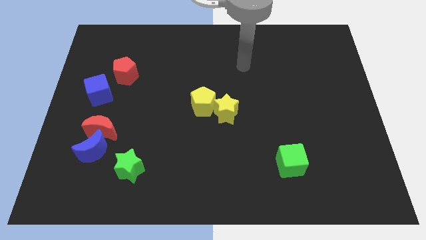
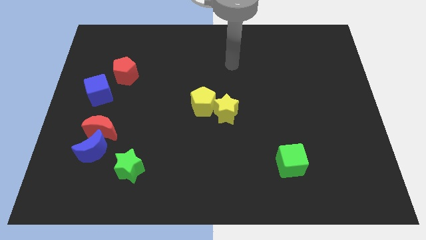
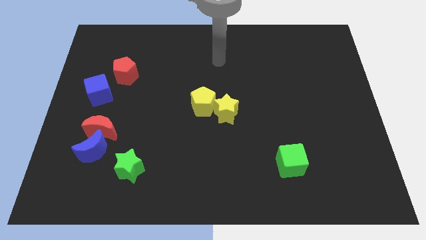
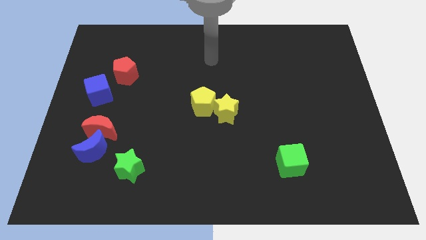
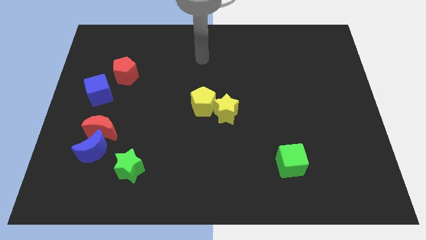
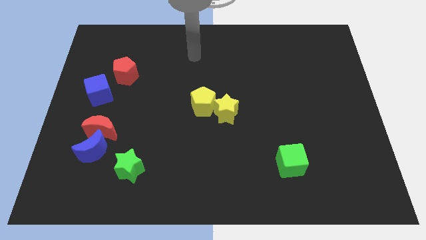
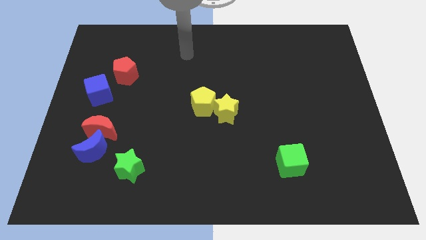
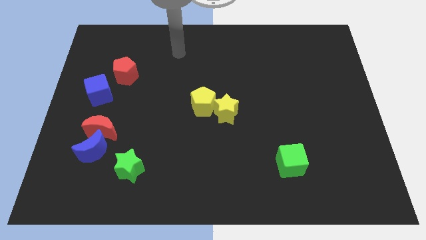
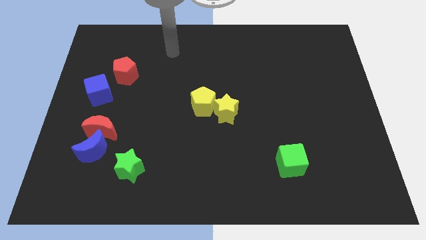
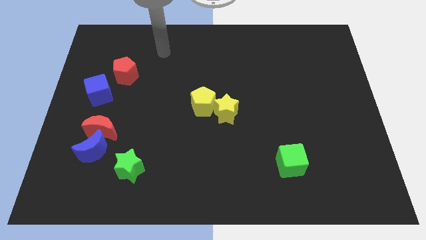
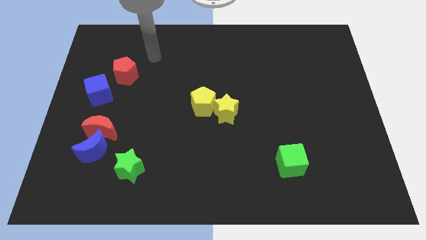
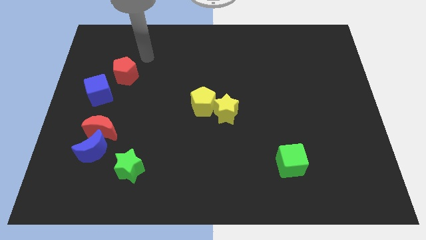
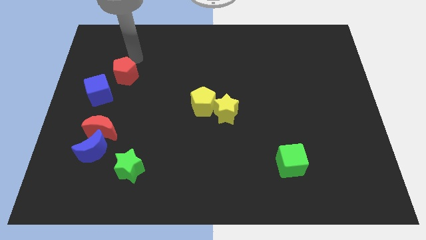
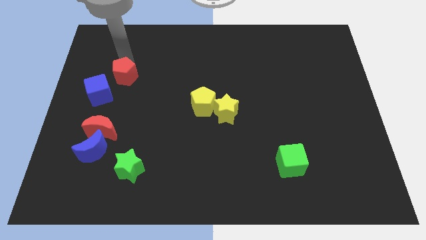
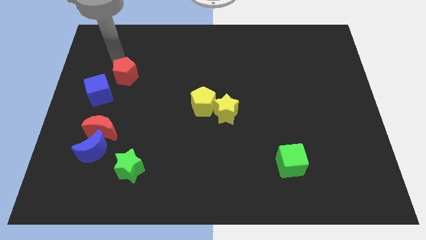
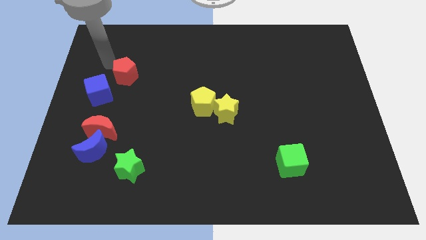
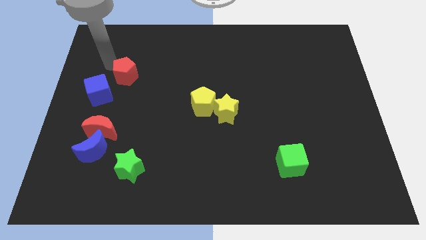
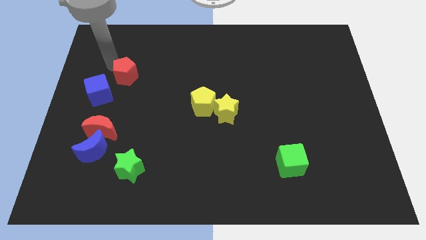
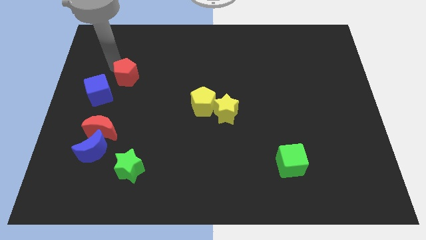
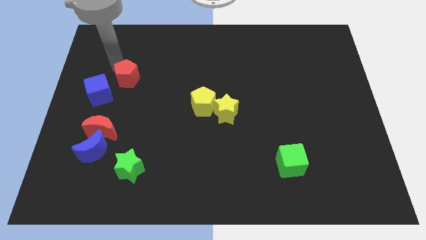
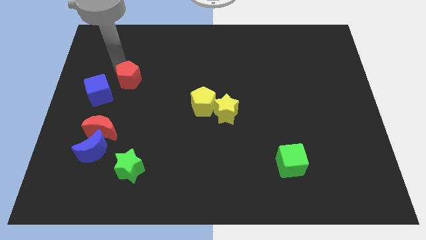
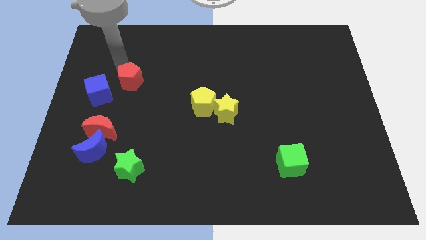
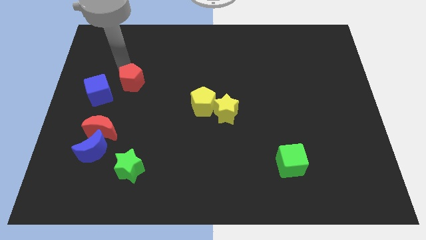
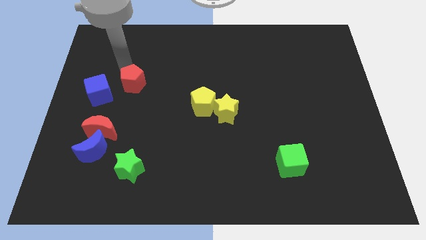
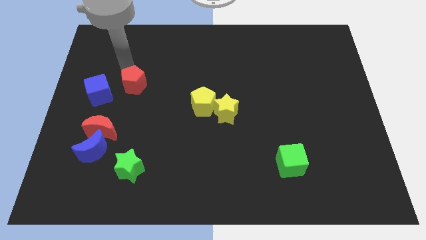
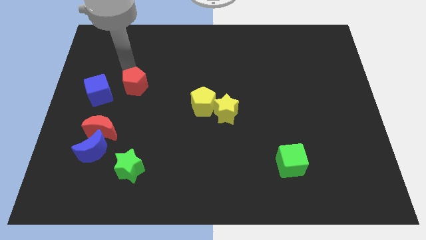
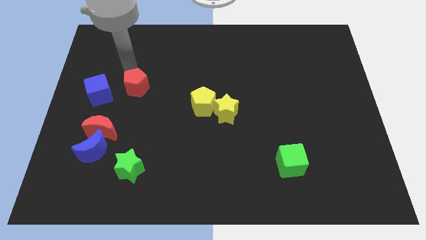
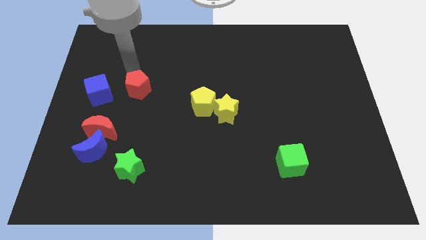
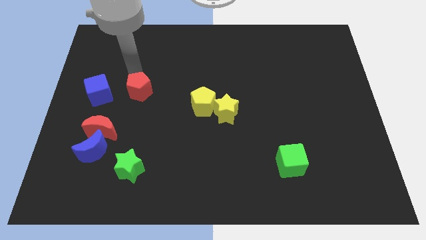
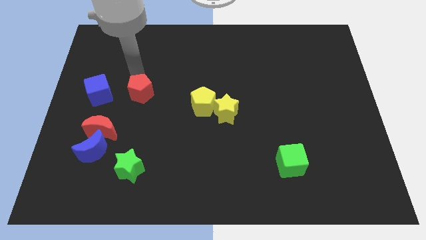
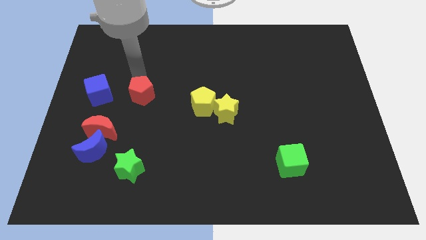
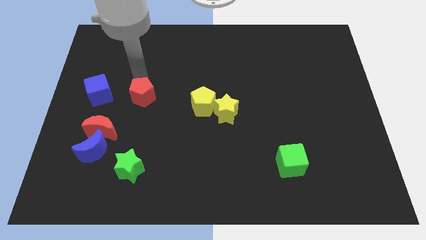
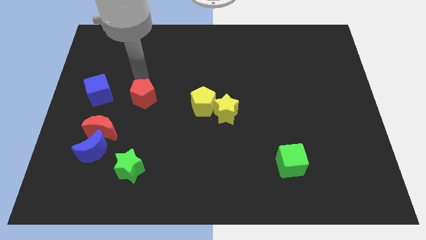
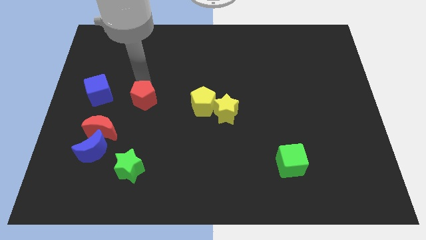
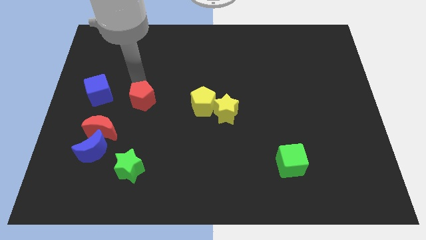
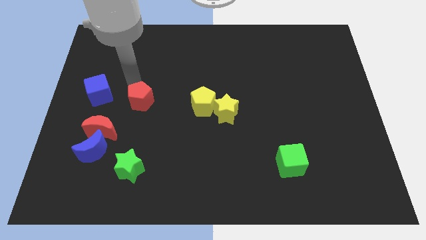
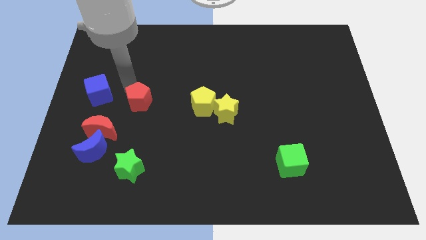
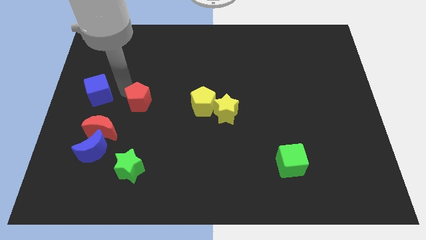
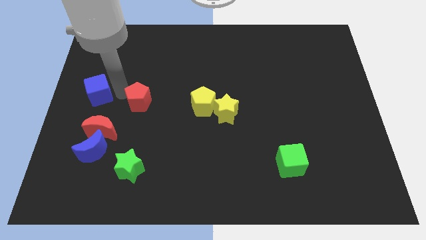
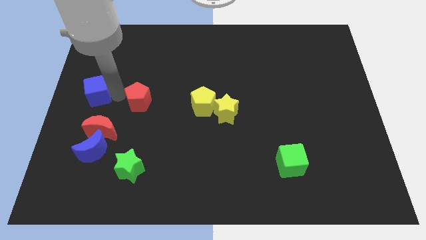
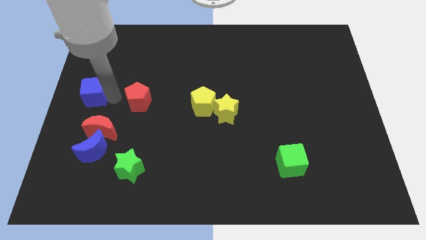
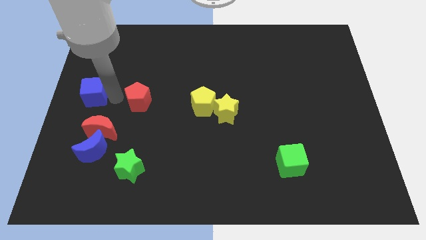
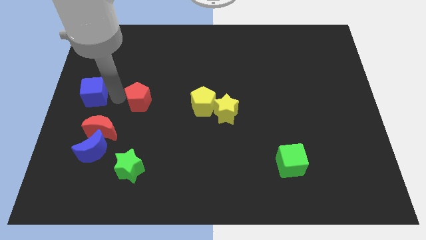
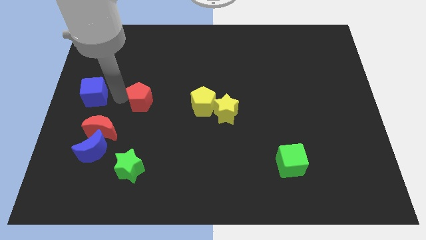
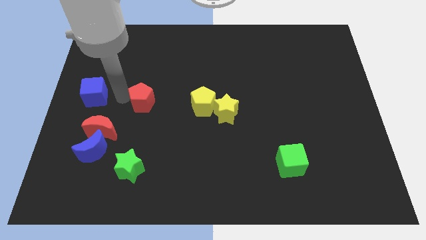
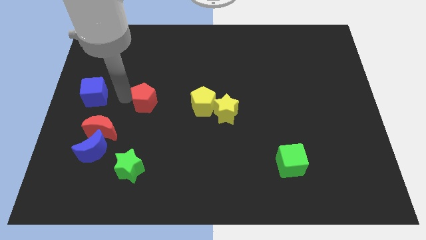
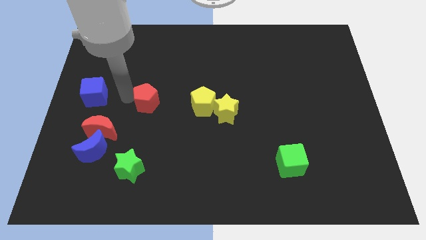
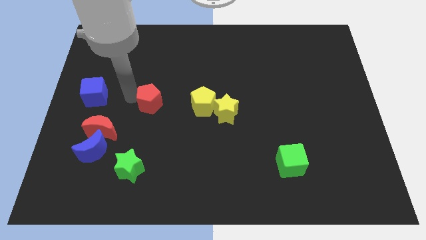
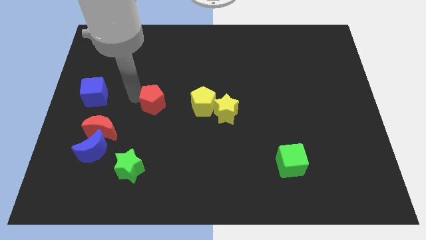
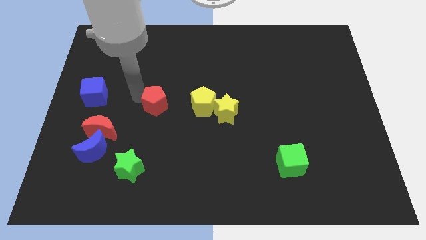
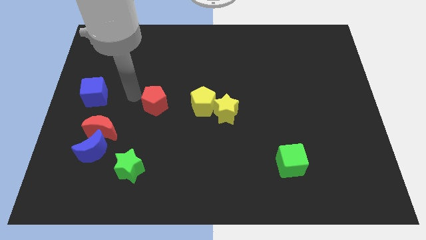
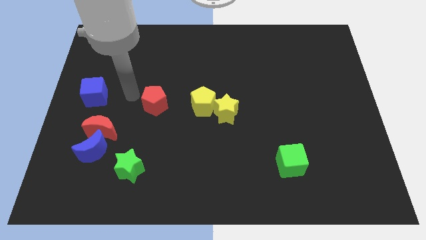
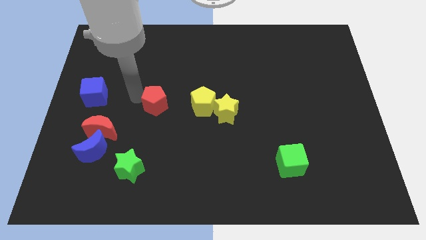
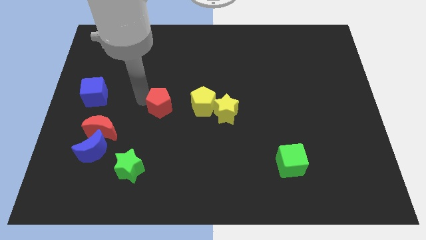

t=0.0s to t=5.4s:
slide the red pentagon just left of the yellow star

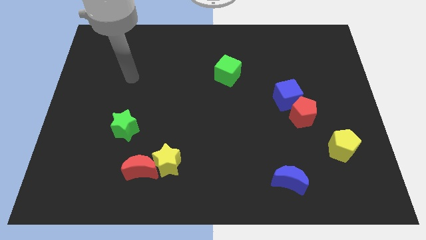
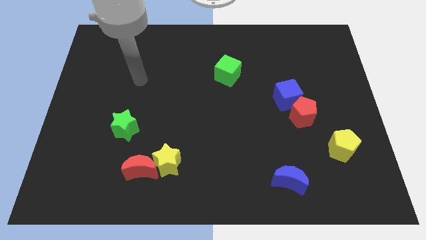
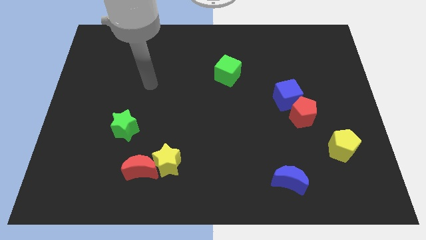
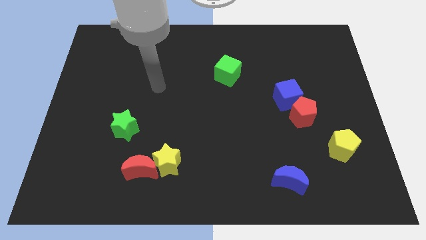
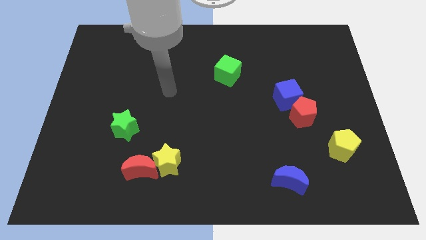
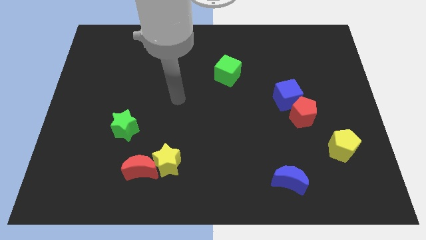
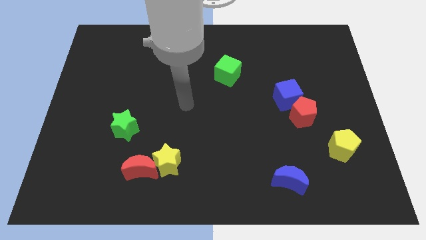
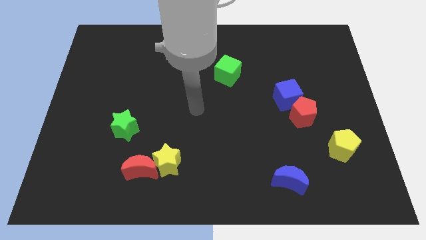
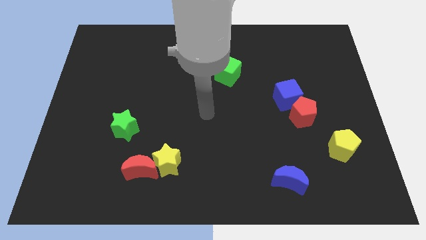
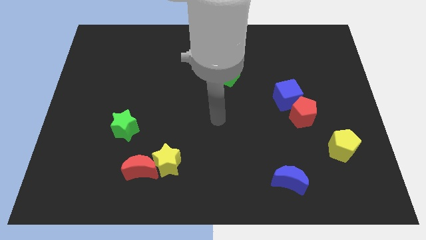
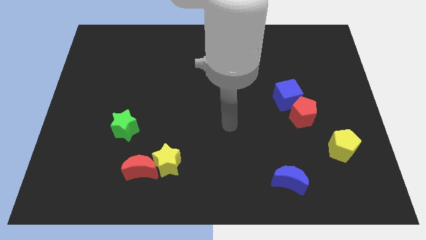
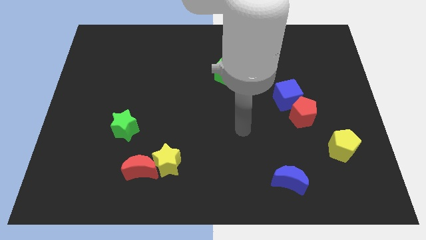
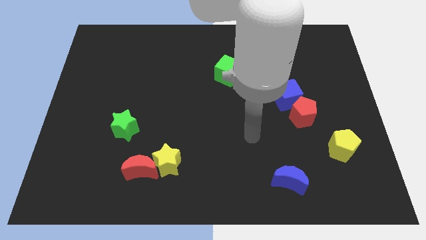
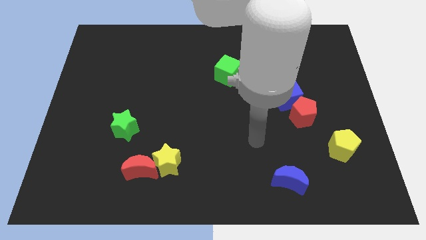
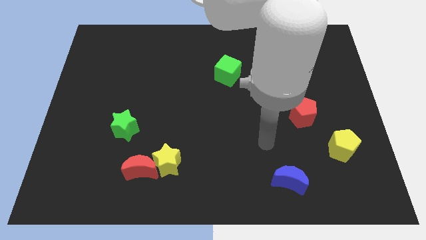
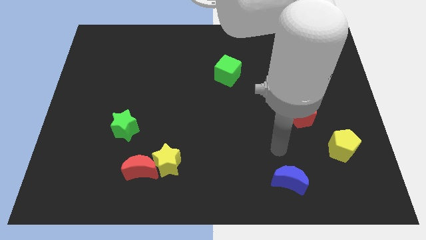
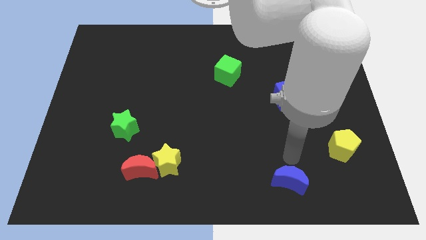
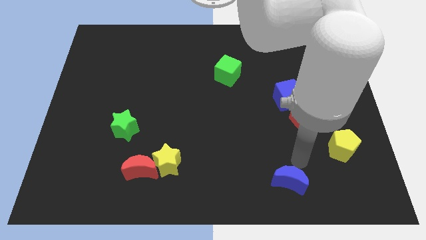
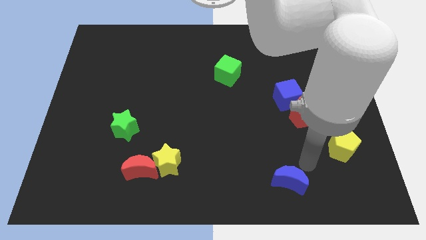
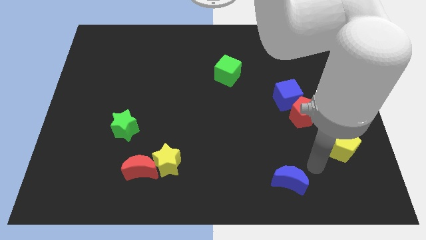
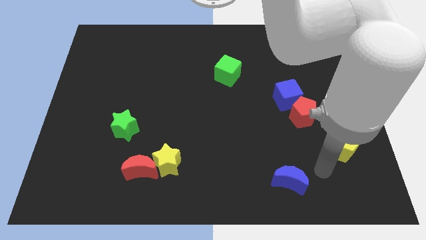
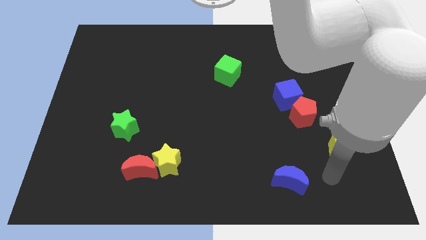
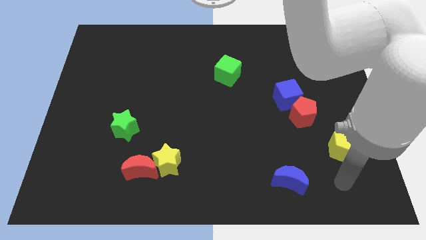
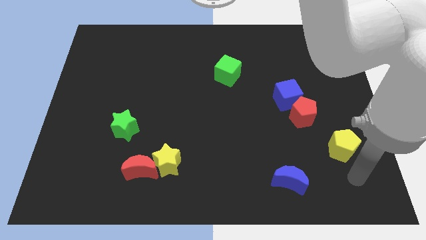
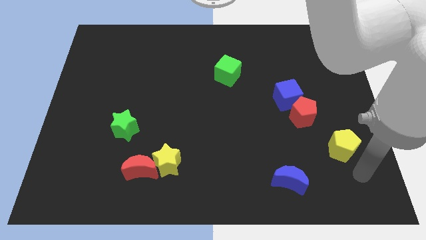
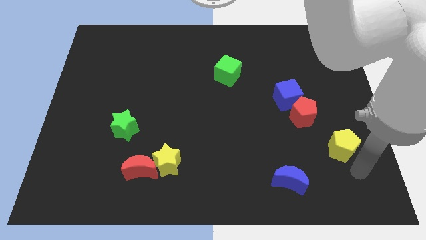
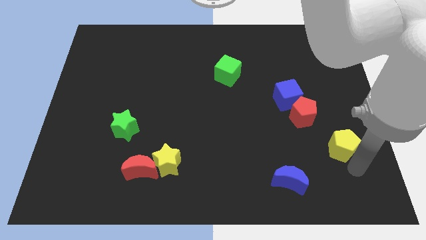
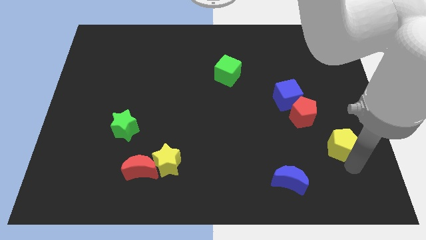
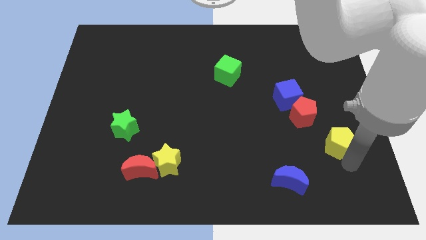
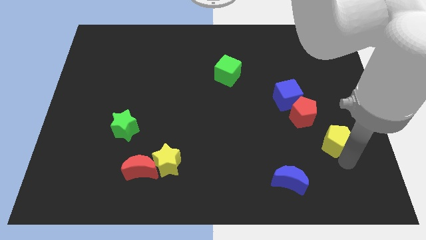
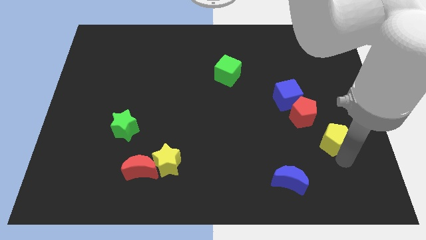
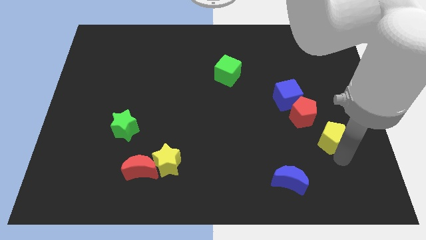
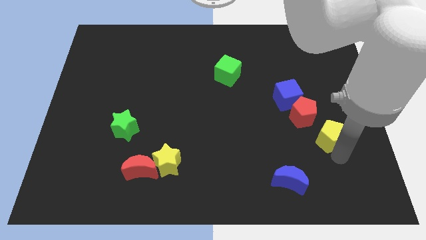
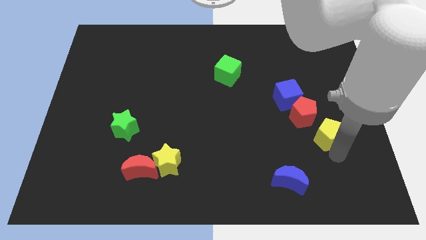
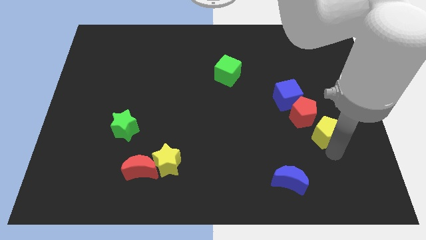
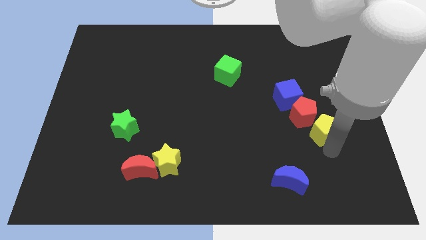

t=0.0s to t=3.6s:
put the yellow pentagon diagonally down and to the right of the blue cube
